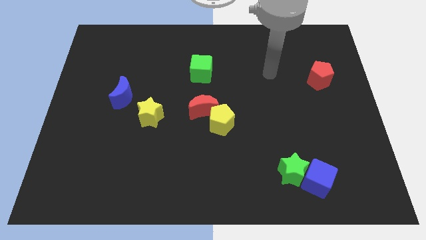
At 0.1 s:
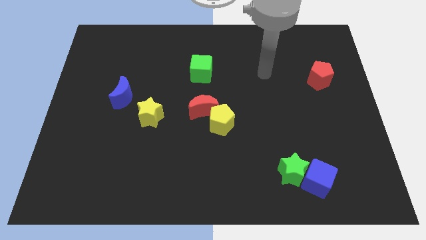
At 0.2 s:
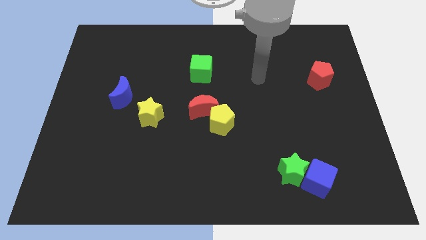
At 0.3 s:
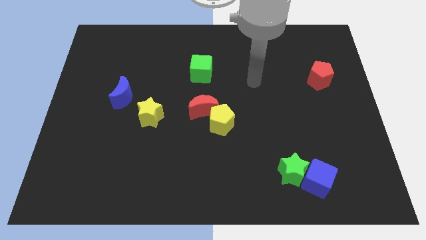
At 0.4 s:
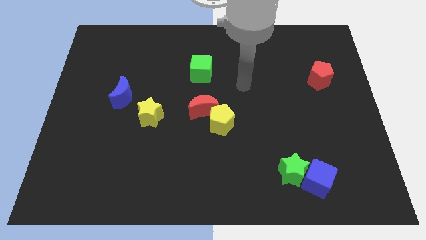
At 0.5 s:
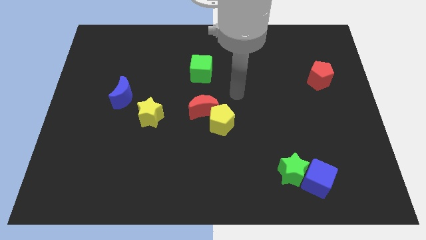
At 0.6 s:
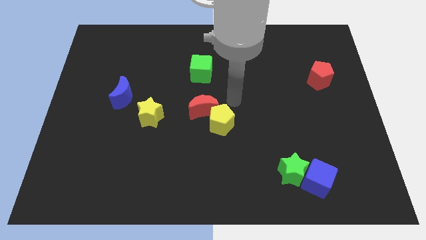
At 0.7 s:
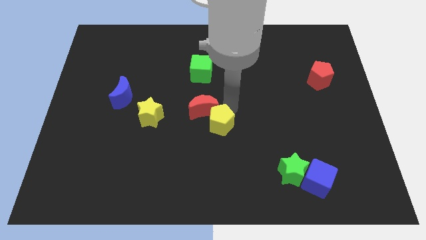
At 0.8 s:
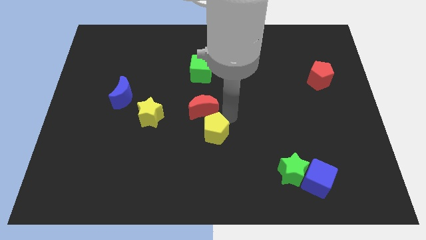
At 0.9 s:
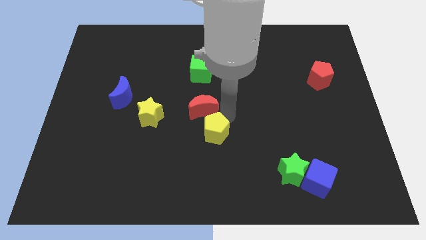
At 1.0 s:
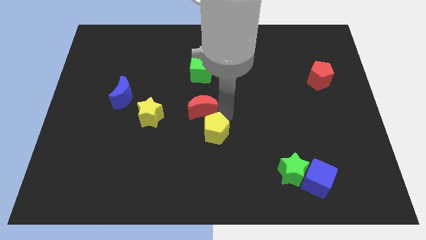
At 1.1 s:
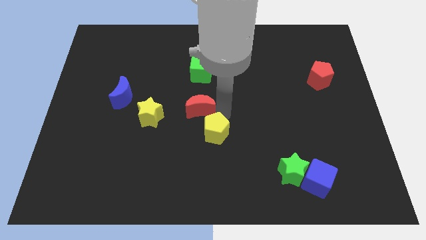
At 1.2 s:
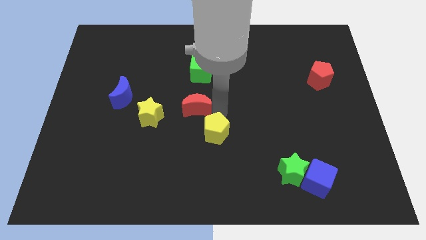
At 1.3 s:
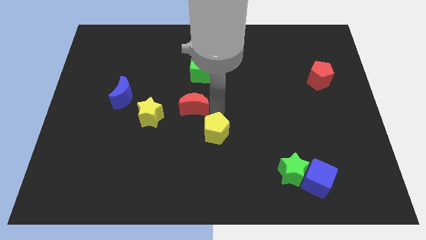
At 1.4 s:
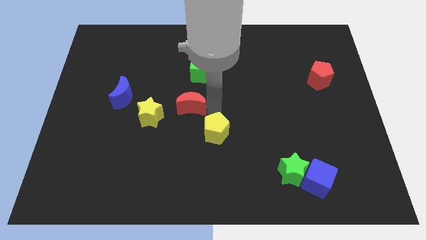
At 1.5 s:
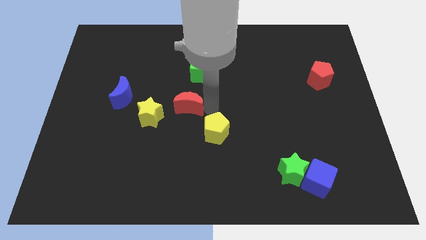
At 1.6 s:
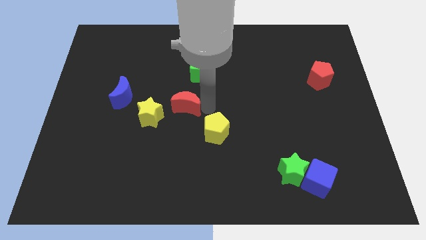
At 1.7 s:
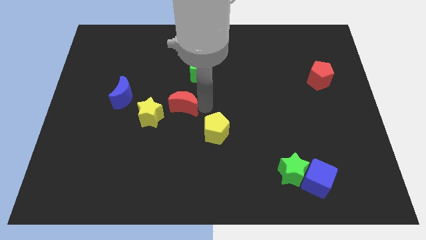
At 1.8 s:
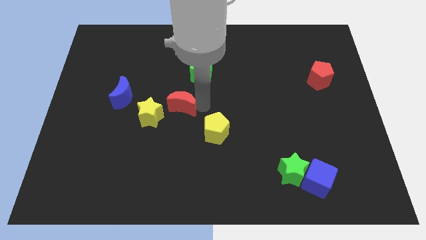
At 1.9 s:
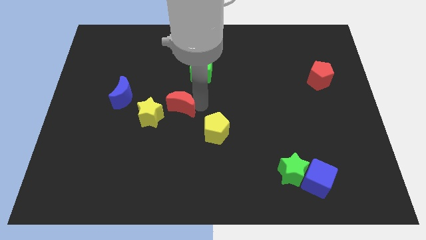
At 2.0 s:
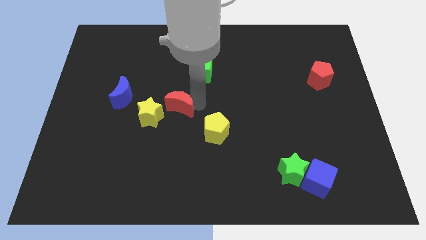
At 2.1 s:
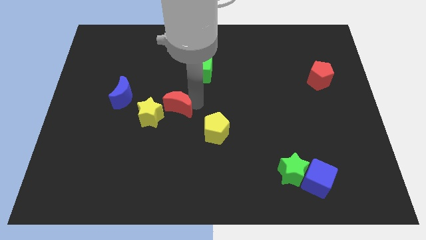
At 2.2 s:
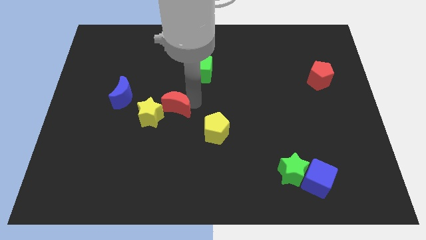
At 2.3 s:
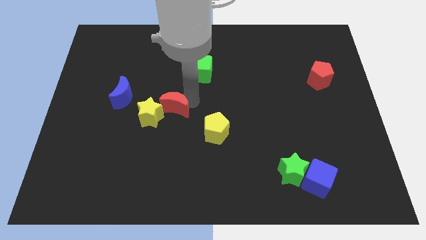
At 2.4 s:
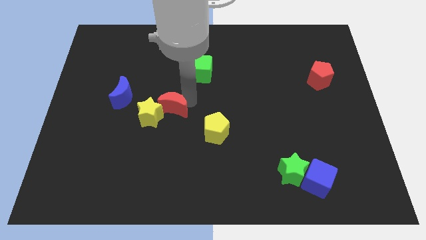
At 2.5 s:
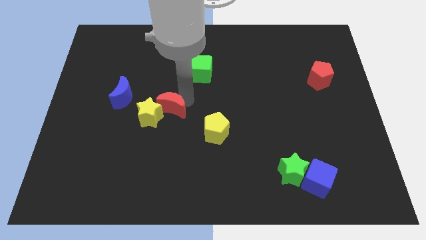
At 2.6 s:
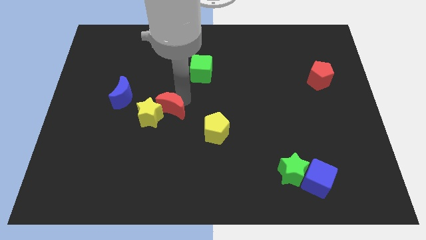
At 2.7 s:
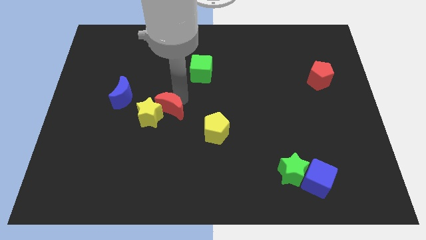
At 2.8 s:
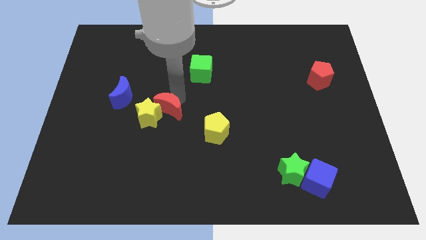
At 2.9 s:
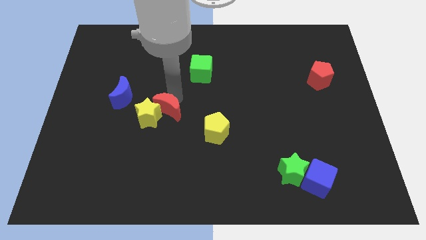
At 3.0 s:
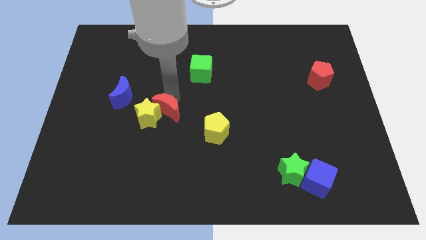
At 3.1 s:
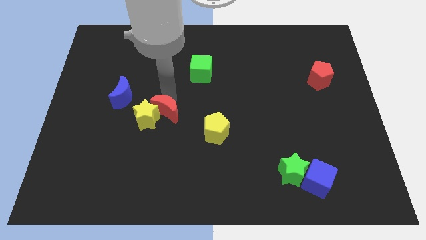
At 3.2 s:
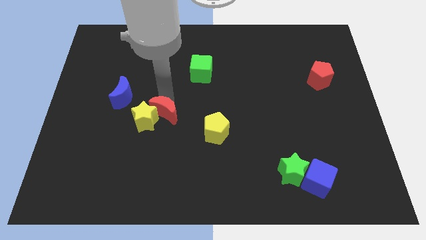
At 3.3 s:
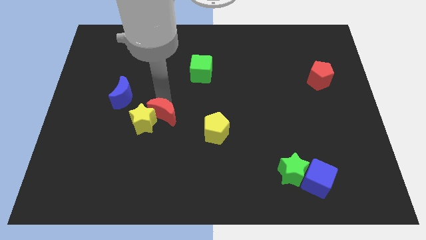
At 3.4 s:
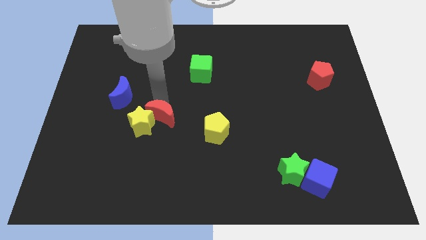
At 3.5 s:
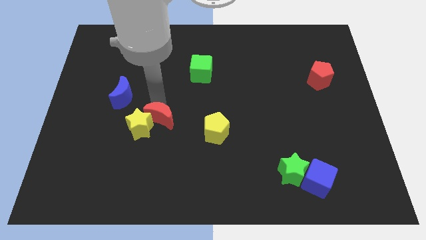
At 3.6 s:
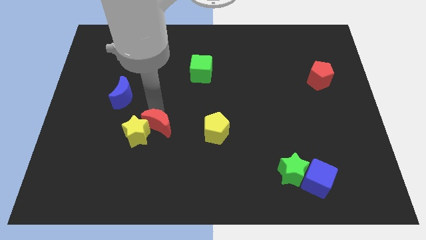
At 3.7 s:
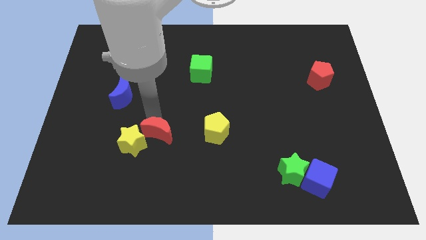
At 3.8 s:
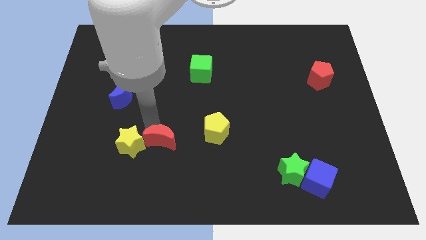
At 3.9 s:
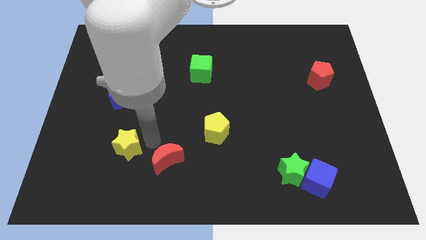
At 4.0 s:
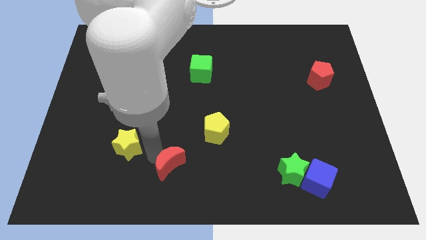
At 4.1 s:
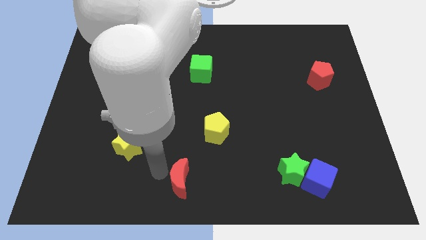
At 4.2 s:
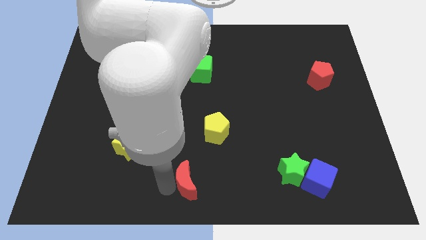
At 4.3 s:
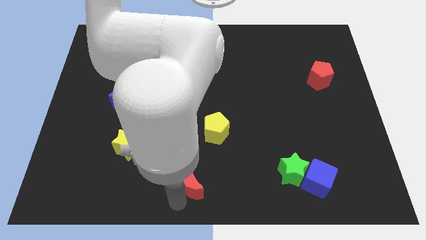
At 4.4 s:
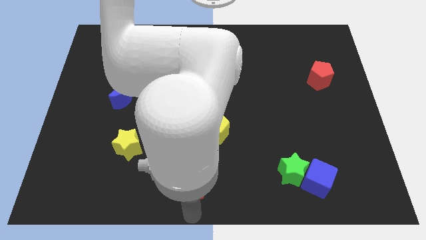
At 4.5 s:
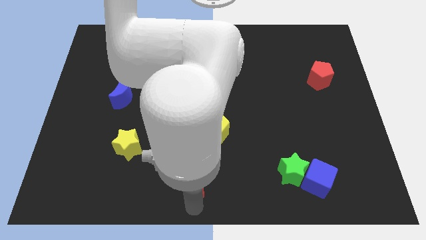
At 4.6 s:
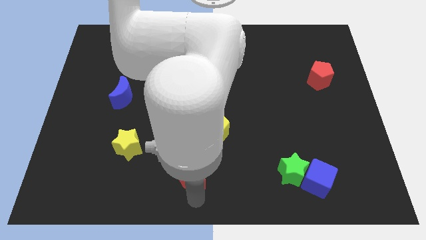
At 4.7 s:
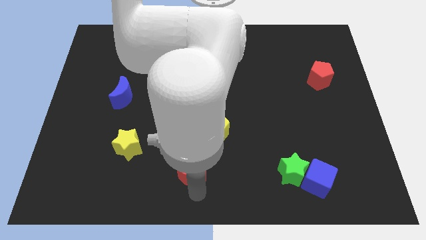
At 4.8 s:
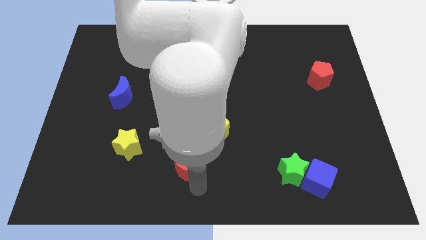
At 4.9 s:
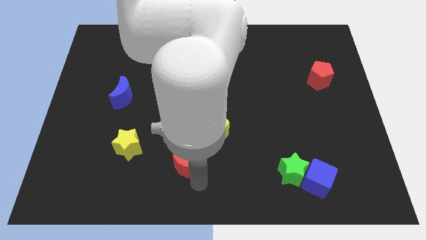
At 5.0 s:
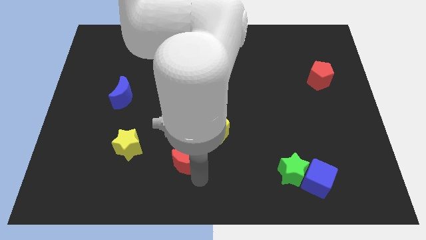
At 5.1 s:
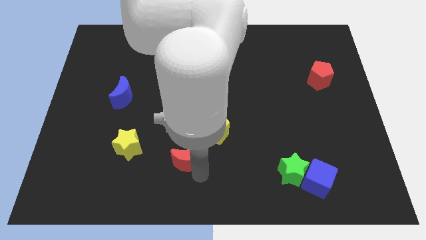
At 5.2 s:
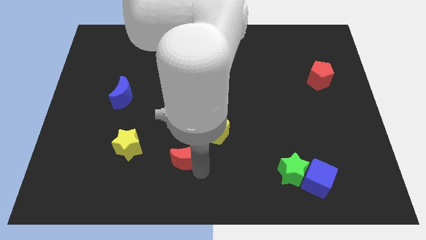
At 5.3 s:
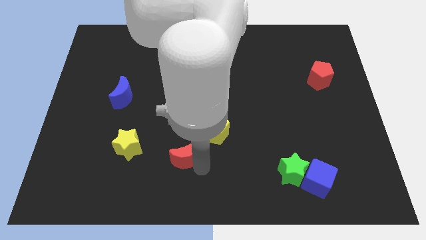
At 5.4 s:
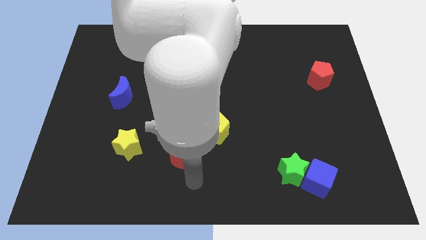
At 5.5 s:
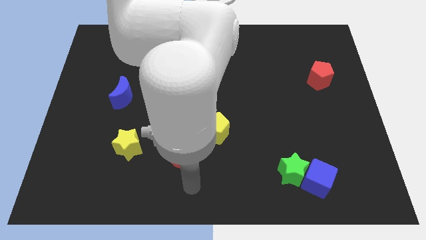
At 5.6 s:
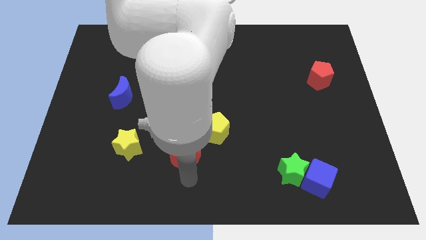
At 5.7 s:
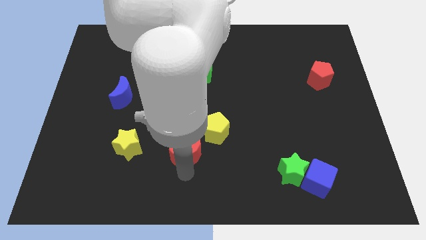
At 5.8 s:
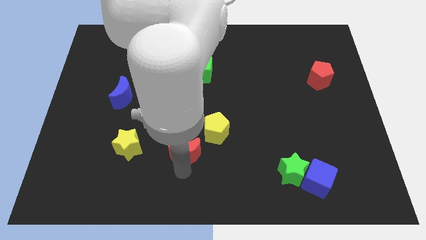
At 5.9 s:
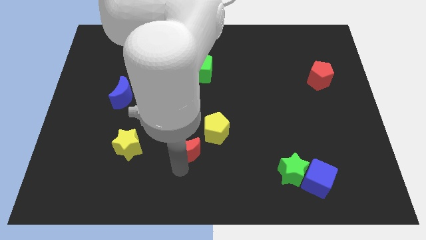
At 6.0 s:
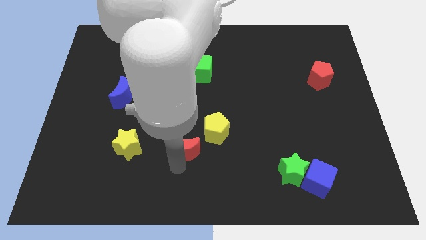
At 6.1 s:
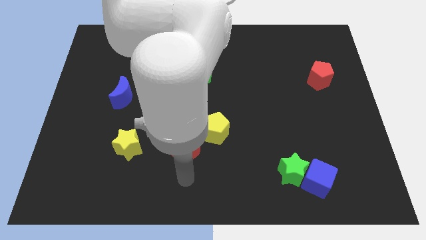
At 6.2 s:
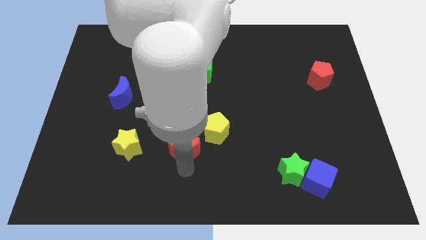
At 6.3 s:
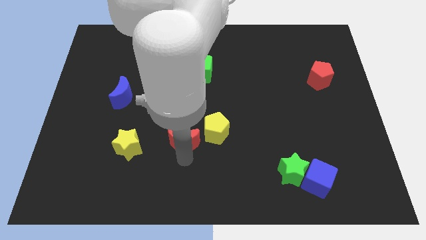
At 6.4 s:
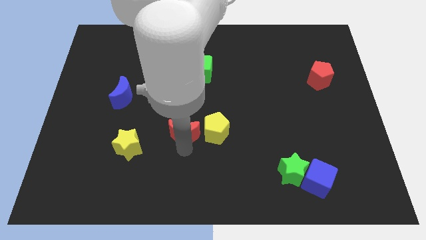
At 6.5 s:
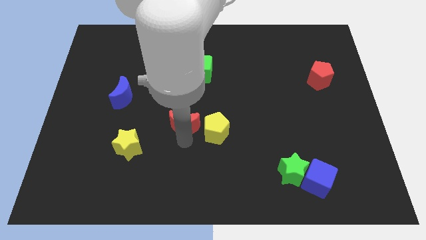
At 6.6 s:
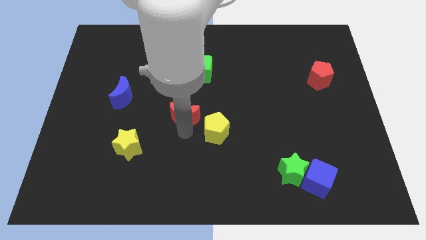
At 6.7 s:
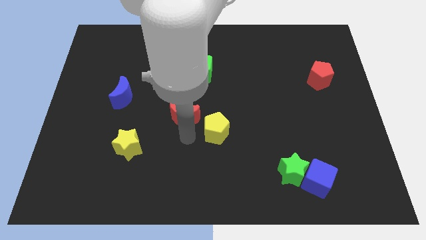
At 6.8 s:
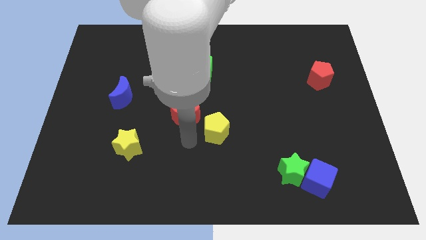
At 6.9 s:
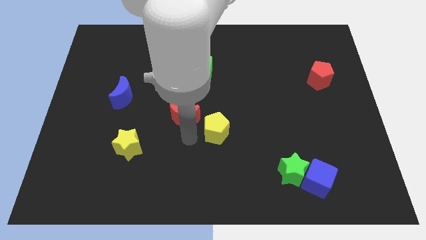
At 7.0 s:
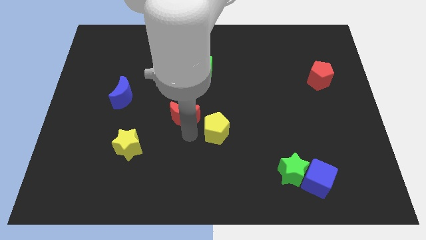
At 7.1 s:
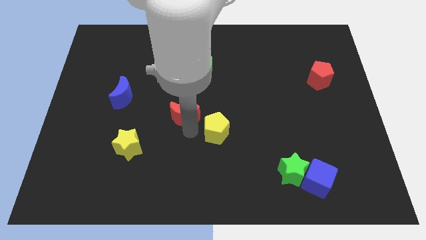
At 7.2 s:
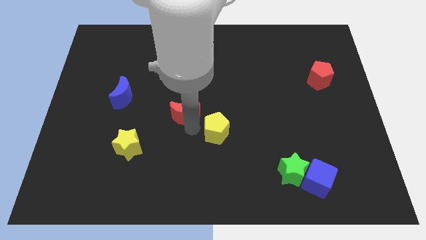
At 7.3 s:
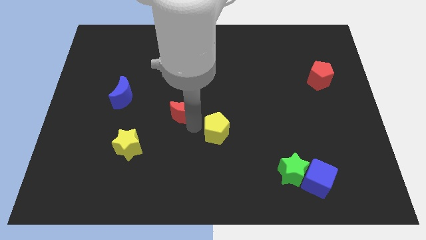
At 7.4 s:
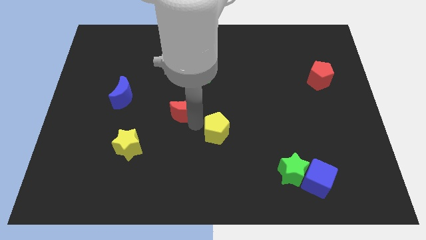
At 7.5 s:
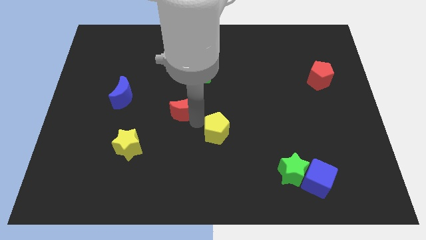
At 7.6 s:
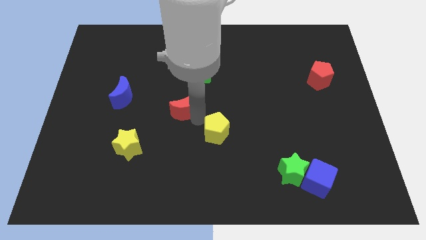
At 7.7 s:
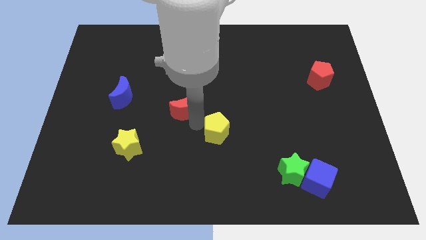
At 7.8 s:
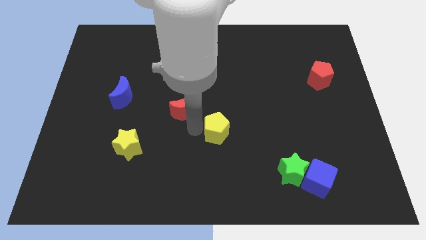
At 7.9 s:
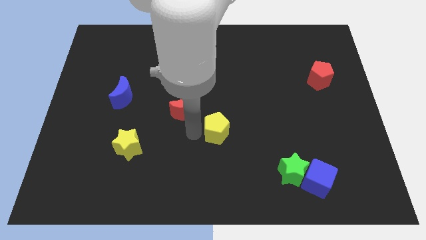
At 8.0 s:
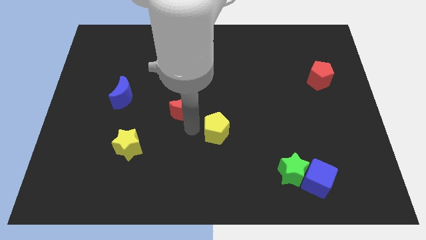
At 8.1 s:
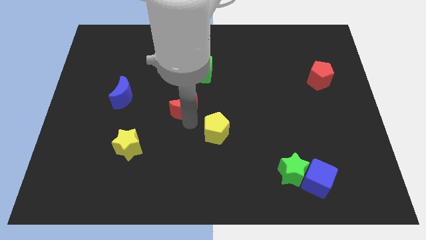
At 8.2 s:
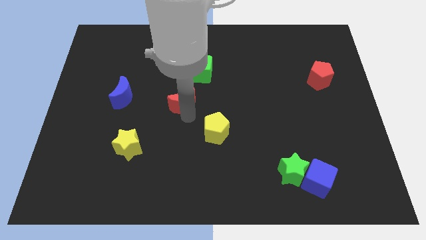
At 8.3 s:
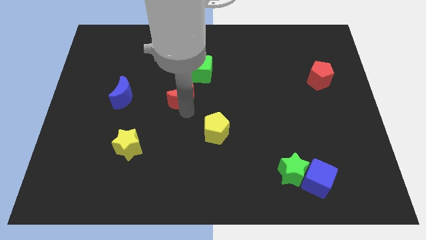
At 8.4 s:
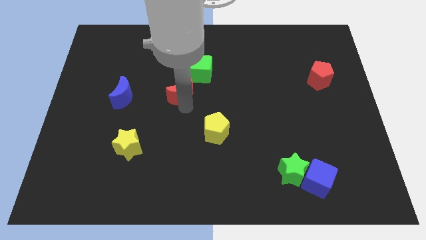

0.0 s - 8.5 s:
move the red moon a bit up and left diagonally
